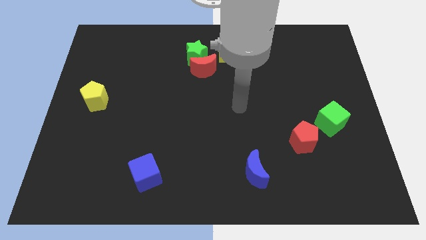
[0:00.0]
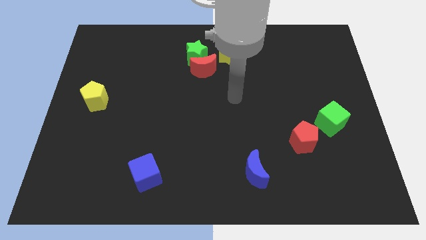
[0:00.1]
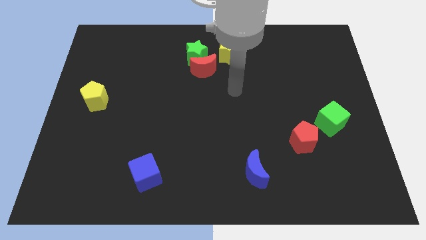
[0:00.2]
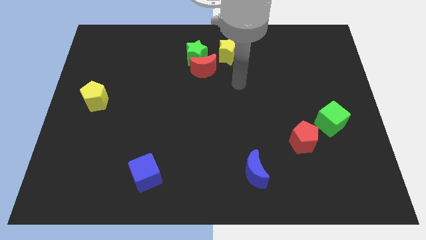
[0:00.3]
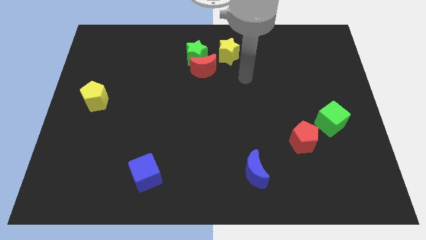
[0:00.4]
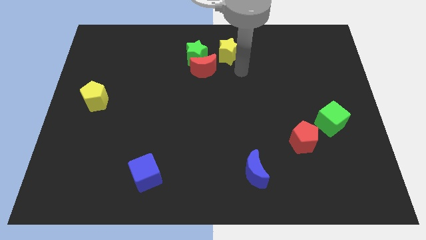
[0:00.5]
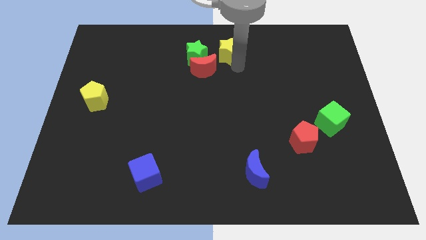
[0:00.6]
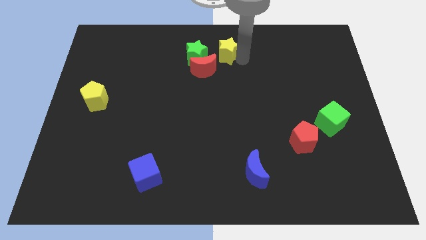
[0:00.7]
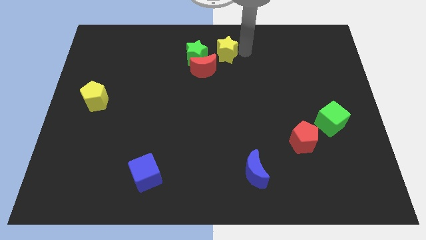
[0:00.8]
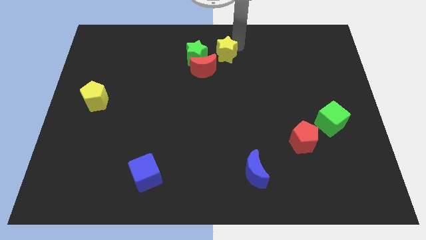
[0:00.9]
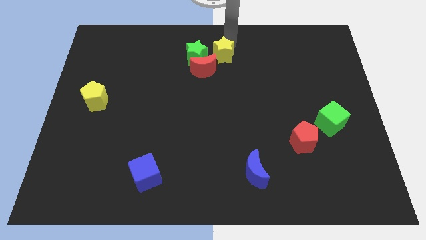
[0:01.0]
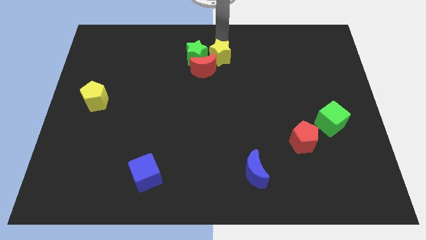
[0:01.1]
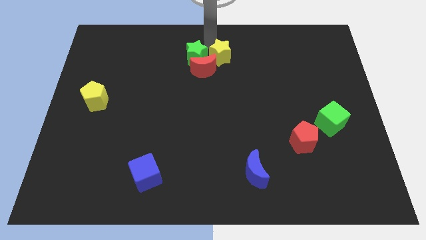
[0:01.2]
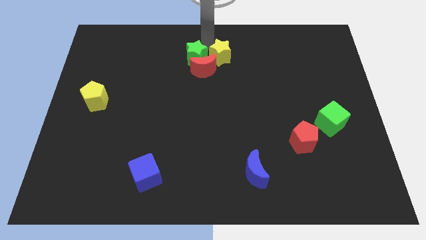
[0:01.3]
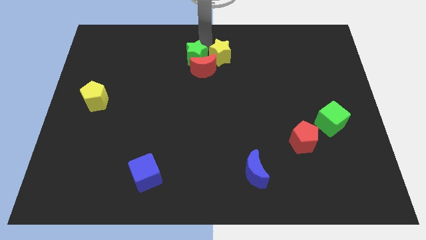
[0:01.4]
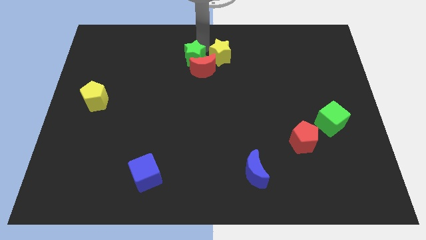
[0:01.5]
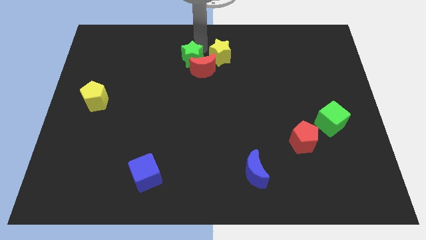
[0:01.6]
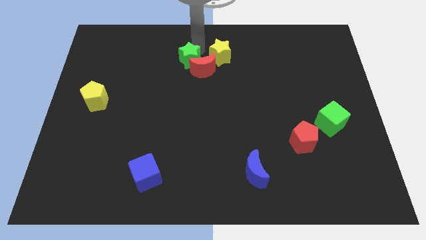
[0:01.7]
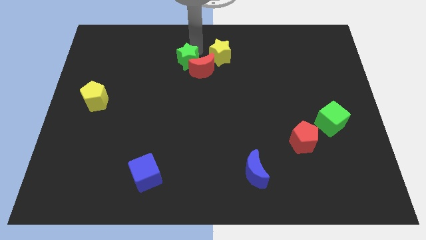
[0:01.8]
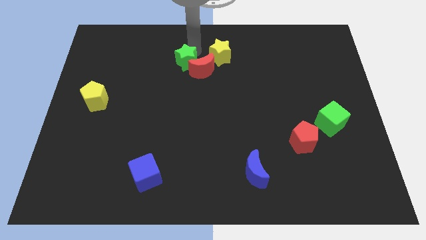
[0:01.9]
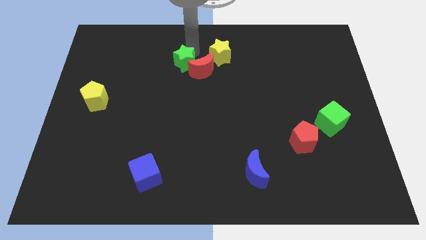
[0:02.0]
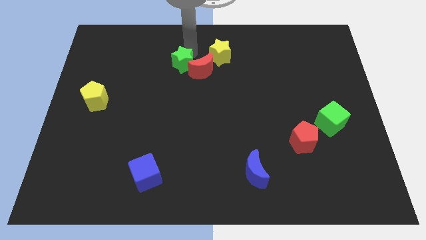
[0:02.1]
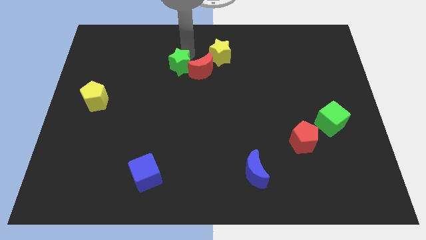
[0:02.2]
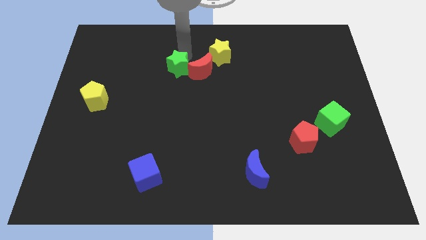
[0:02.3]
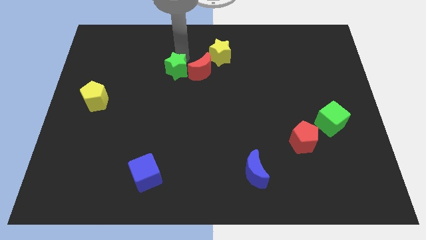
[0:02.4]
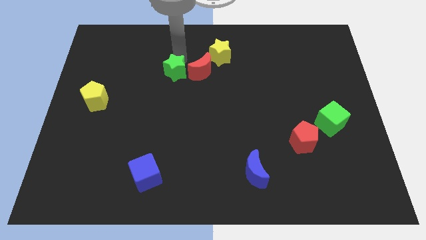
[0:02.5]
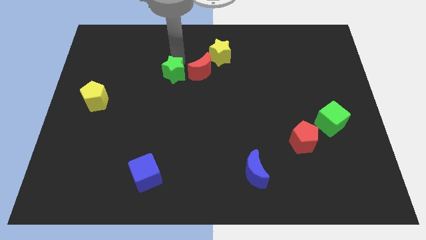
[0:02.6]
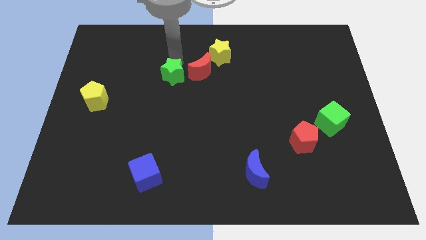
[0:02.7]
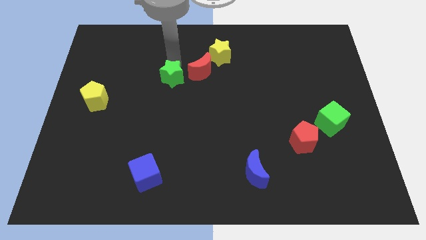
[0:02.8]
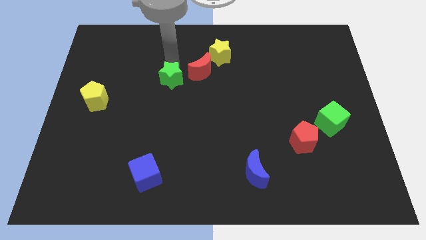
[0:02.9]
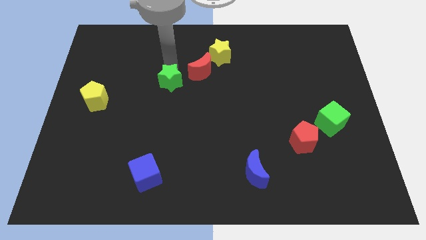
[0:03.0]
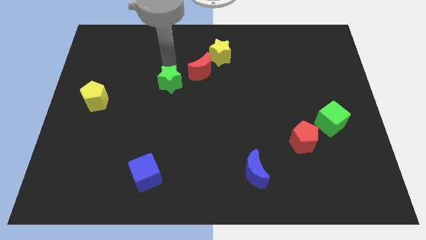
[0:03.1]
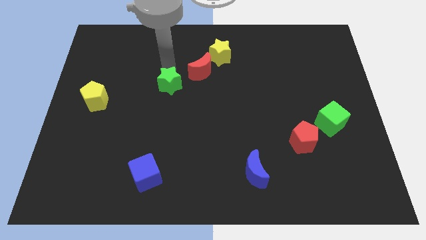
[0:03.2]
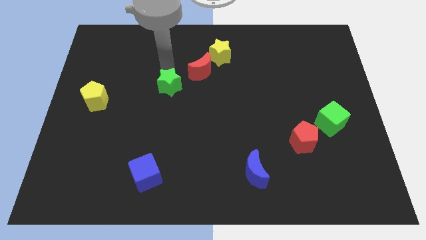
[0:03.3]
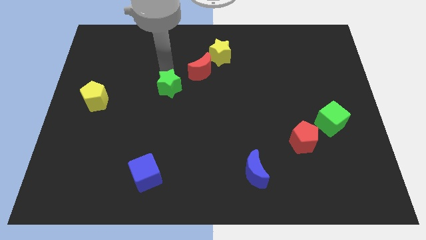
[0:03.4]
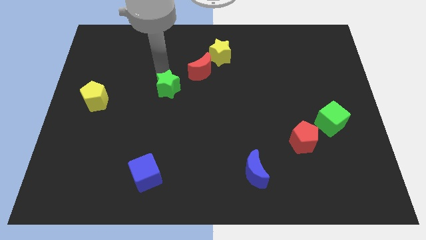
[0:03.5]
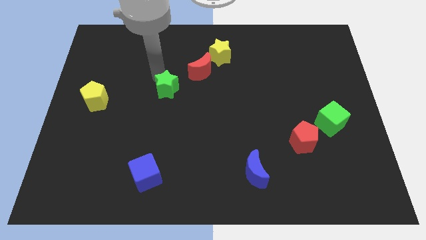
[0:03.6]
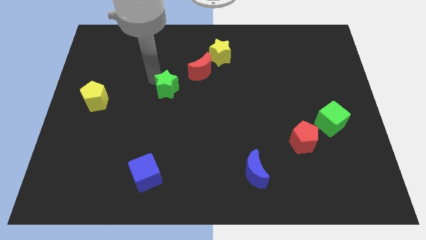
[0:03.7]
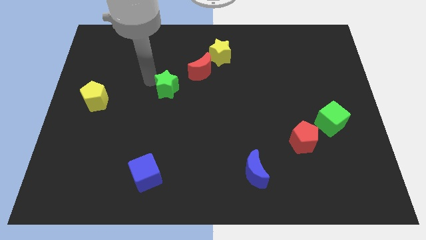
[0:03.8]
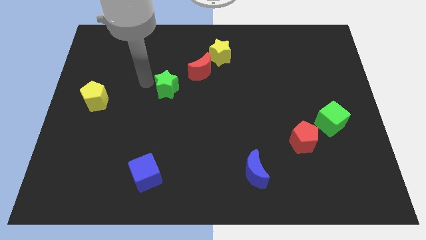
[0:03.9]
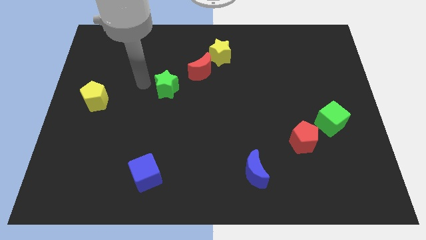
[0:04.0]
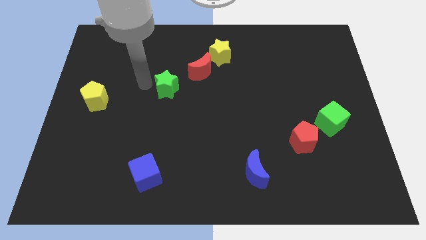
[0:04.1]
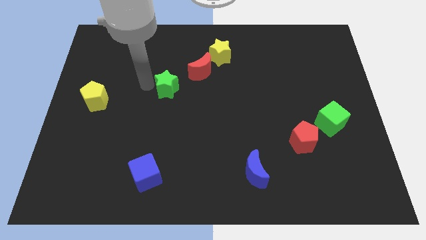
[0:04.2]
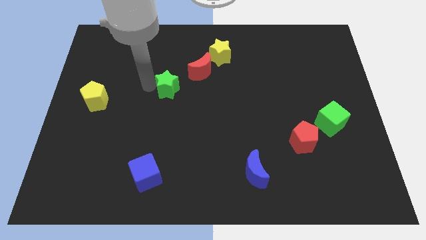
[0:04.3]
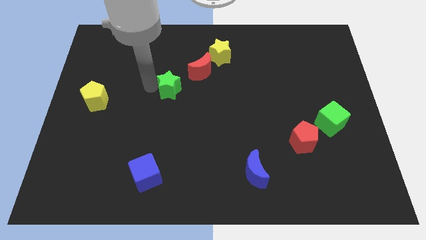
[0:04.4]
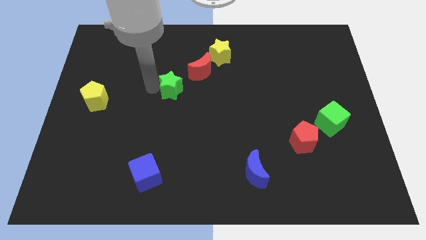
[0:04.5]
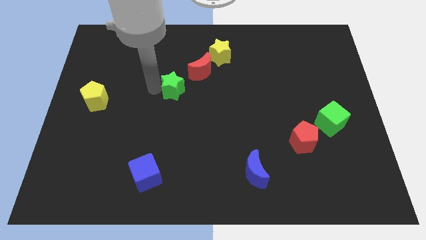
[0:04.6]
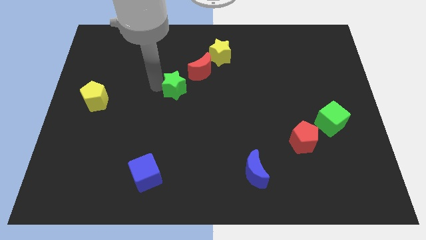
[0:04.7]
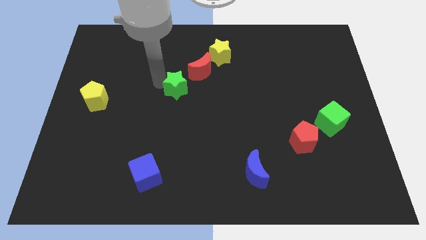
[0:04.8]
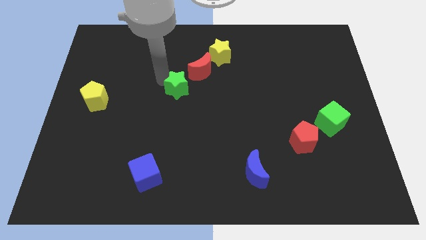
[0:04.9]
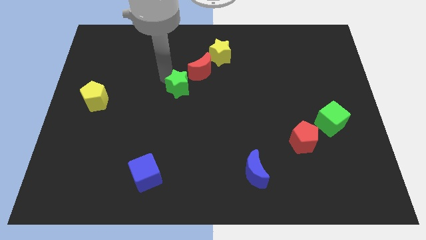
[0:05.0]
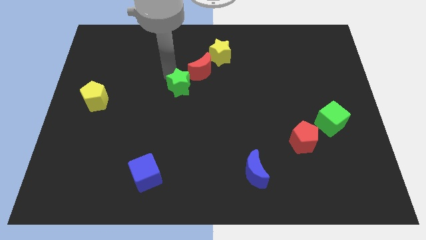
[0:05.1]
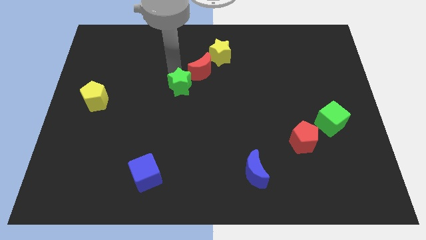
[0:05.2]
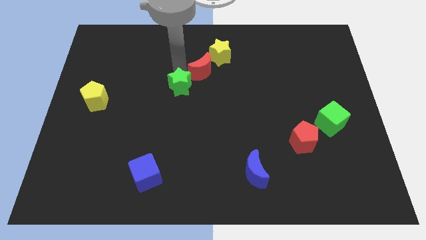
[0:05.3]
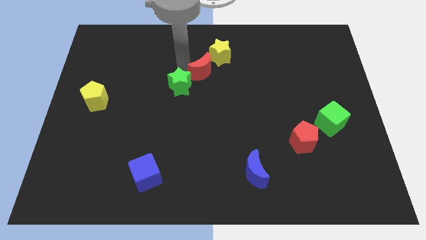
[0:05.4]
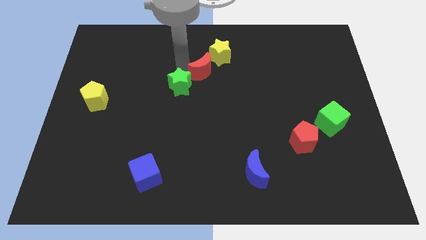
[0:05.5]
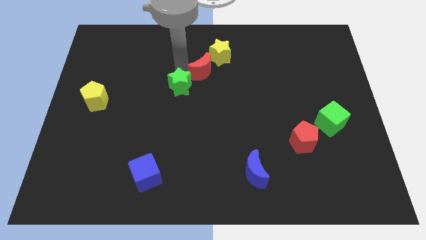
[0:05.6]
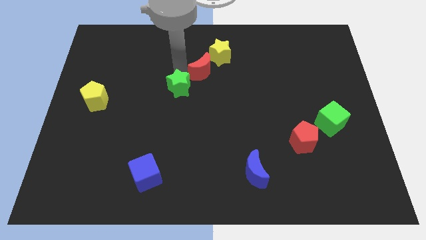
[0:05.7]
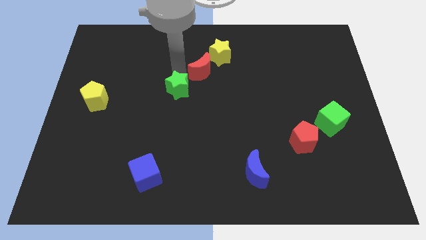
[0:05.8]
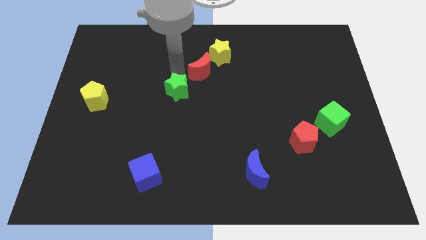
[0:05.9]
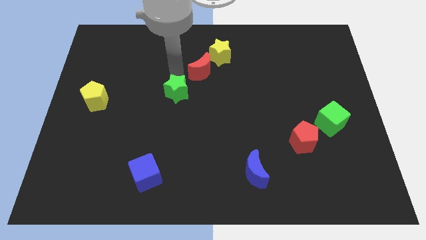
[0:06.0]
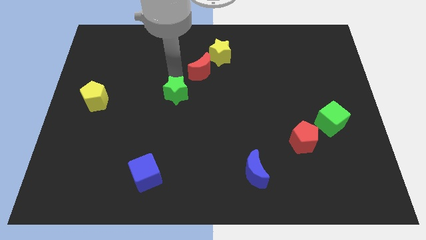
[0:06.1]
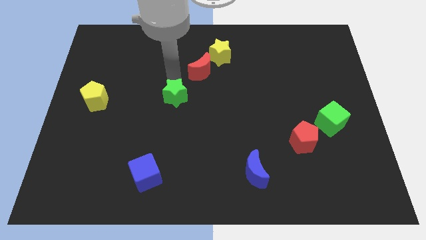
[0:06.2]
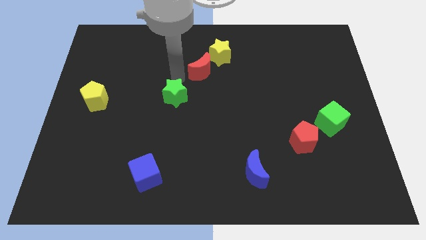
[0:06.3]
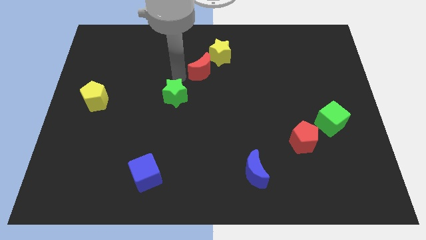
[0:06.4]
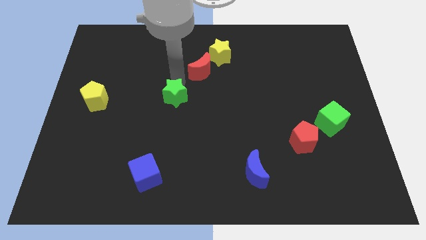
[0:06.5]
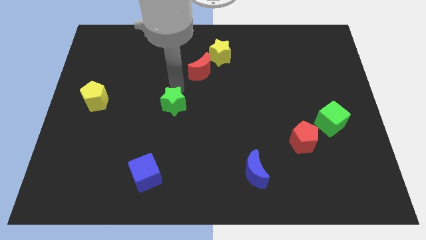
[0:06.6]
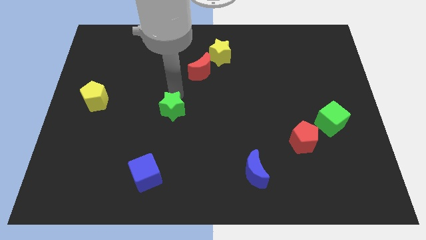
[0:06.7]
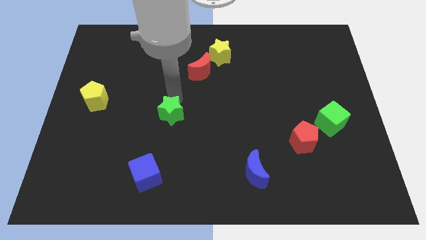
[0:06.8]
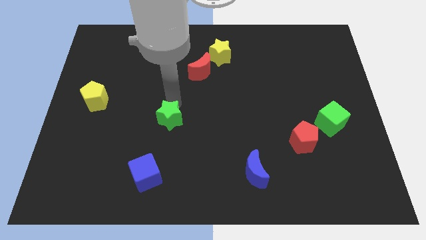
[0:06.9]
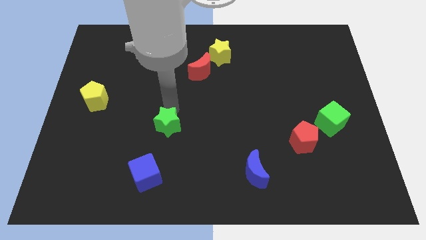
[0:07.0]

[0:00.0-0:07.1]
move the green star downwards

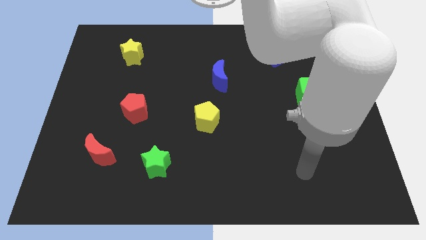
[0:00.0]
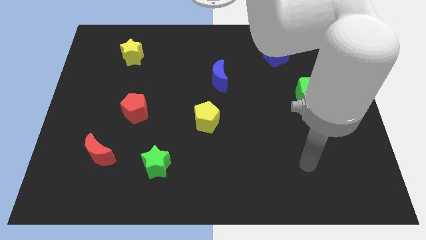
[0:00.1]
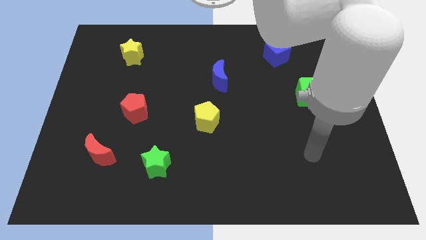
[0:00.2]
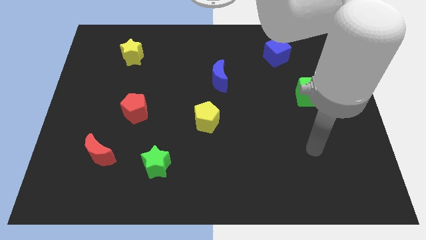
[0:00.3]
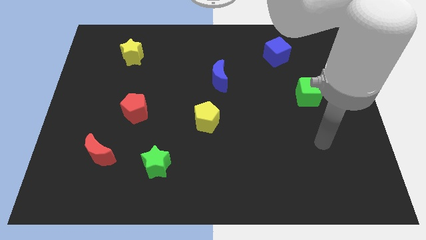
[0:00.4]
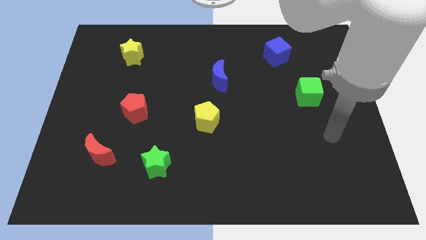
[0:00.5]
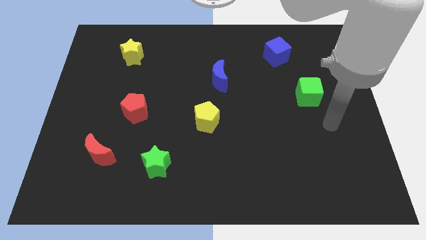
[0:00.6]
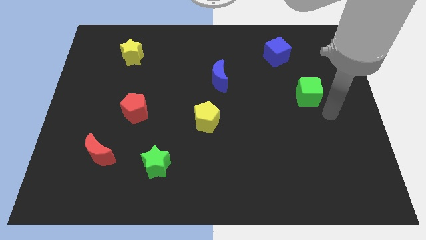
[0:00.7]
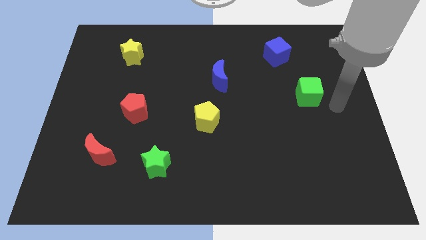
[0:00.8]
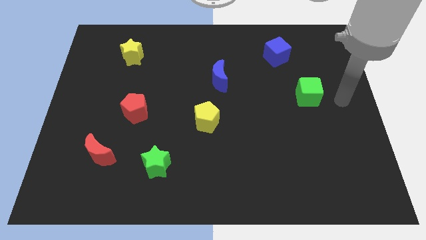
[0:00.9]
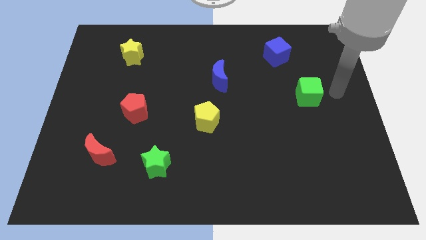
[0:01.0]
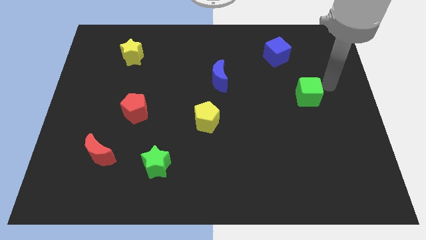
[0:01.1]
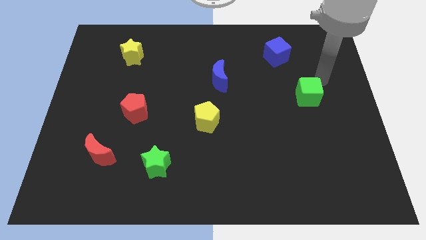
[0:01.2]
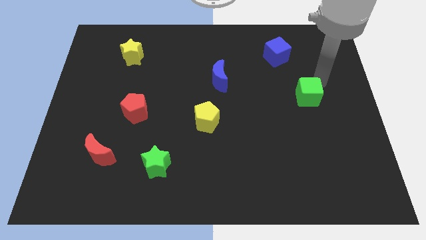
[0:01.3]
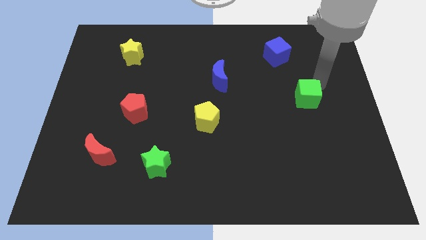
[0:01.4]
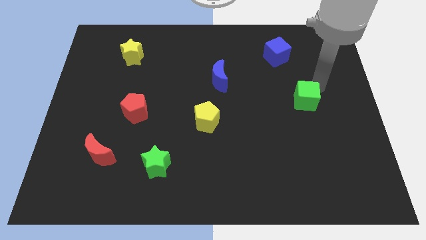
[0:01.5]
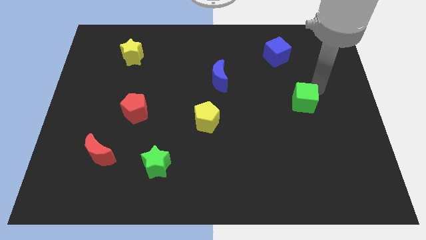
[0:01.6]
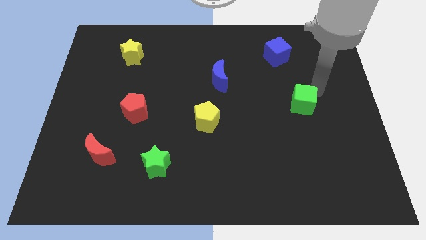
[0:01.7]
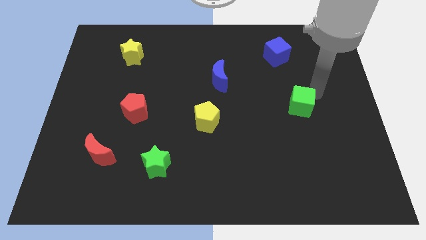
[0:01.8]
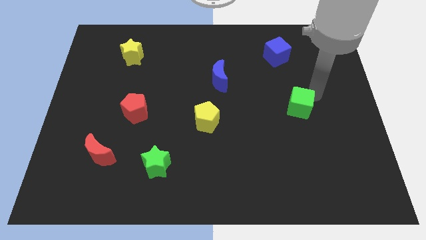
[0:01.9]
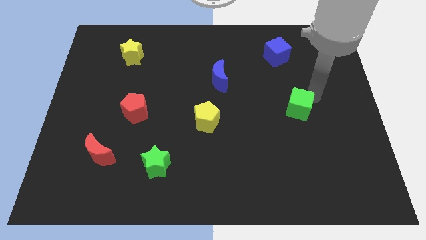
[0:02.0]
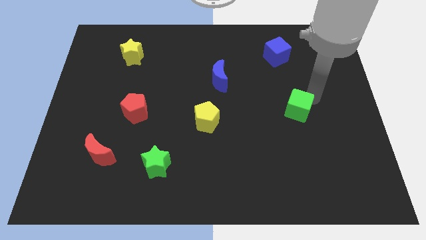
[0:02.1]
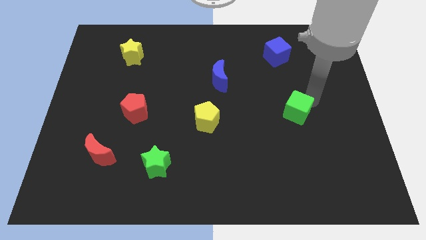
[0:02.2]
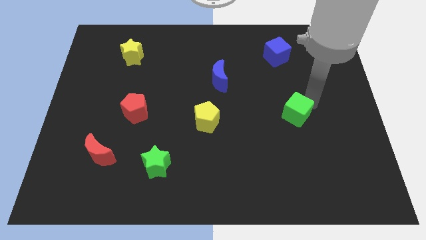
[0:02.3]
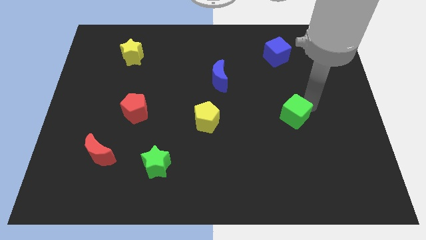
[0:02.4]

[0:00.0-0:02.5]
push the green cube downwards and then to the left a bit
